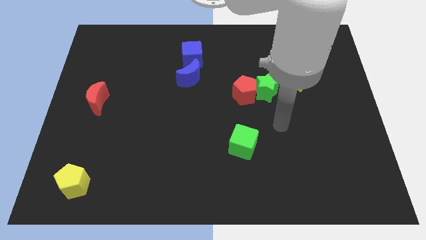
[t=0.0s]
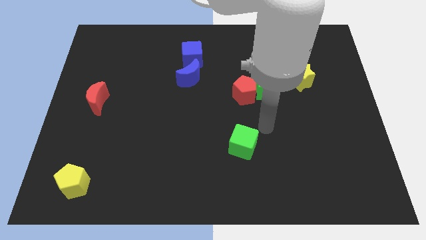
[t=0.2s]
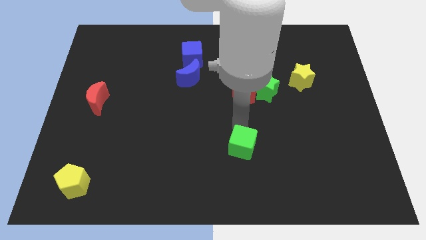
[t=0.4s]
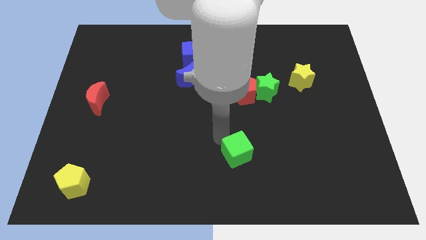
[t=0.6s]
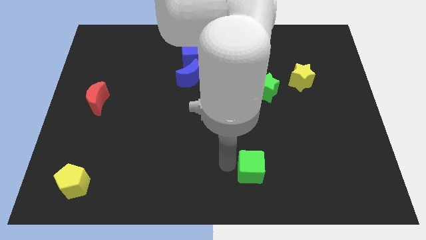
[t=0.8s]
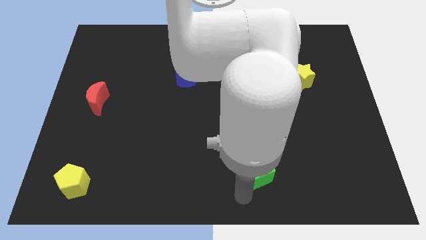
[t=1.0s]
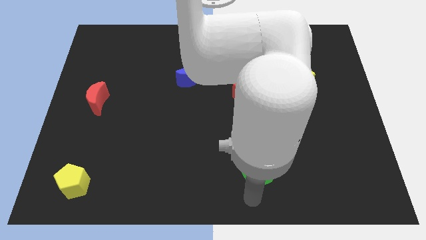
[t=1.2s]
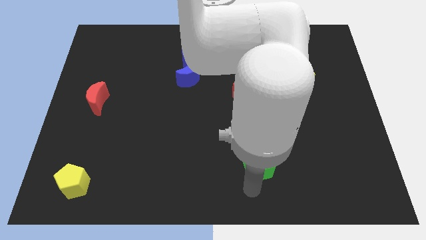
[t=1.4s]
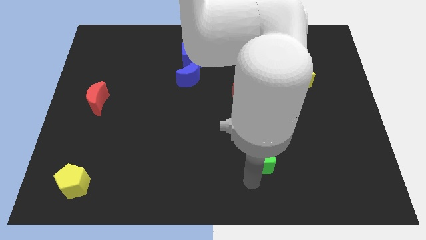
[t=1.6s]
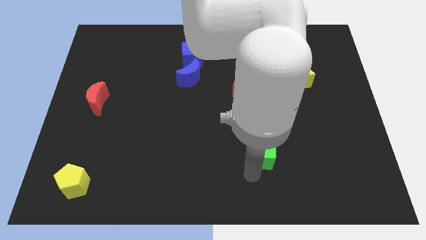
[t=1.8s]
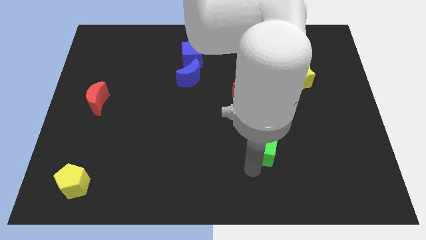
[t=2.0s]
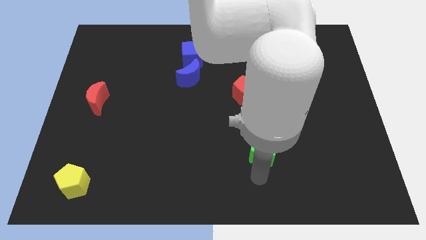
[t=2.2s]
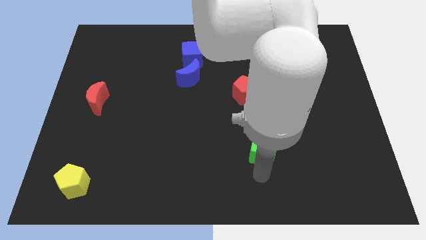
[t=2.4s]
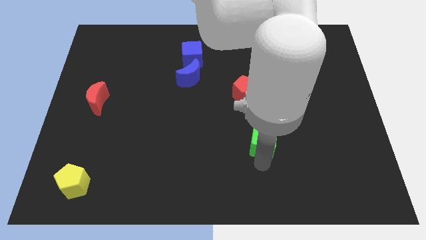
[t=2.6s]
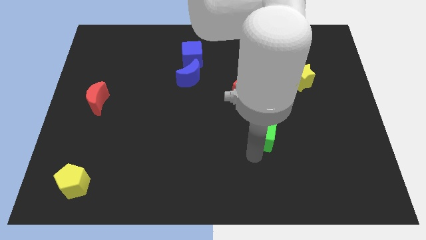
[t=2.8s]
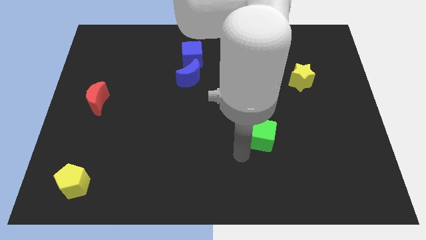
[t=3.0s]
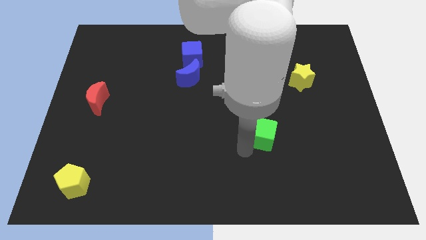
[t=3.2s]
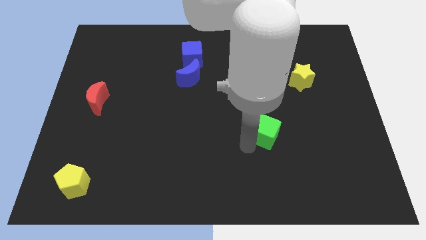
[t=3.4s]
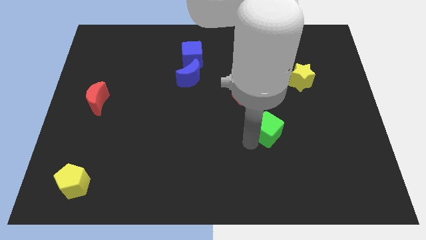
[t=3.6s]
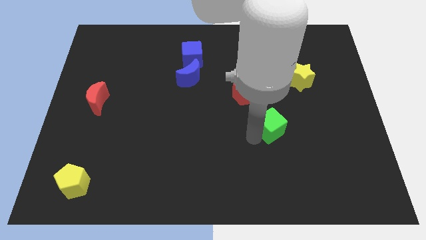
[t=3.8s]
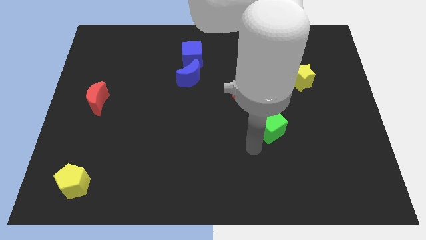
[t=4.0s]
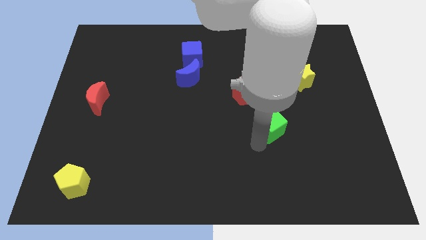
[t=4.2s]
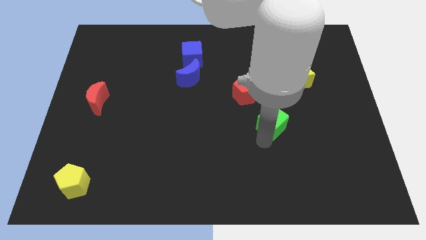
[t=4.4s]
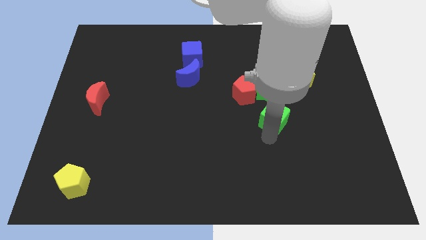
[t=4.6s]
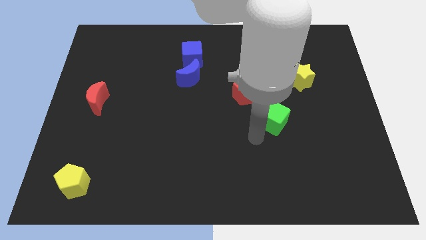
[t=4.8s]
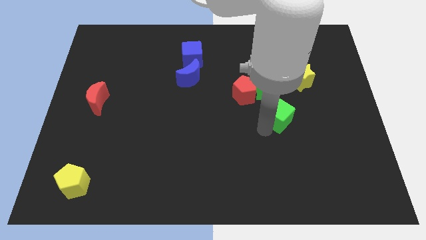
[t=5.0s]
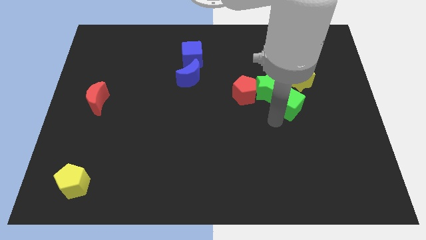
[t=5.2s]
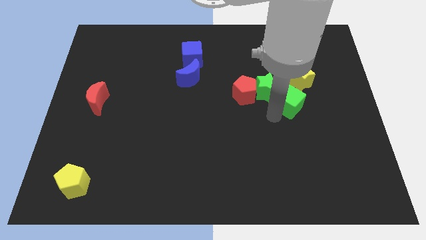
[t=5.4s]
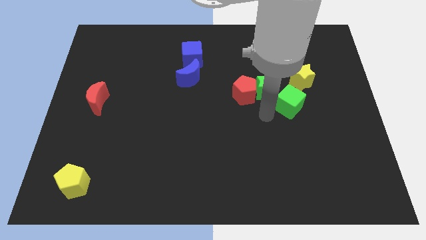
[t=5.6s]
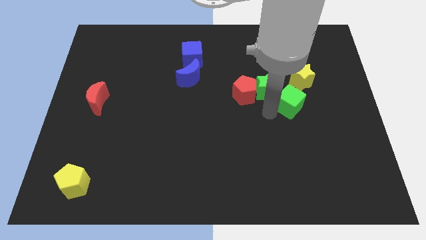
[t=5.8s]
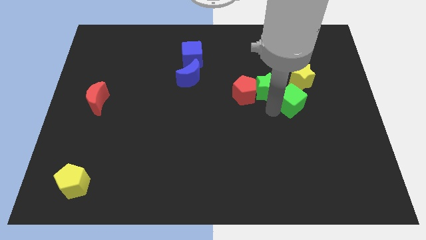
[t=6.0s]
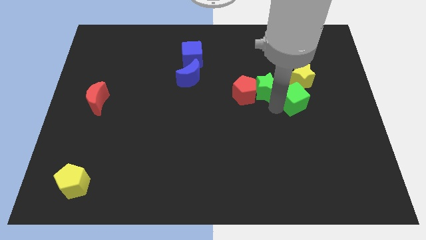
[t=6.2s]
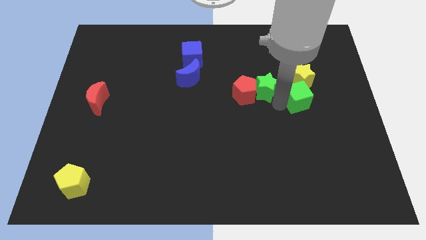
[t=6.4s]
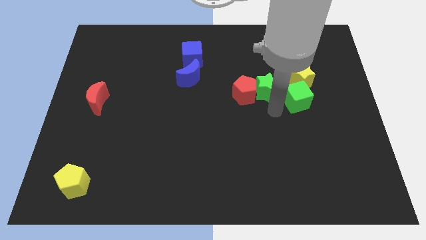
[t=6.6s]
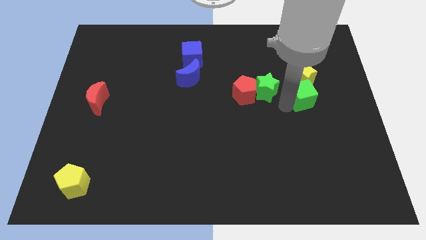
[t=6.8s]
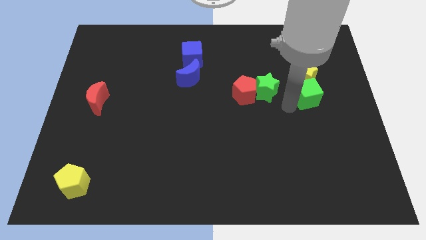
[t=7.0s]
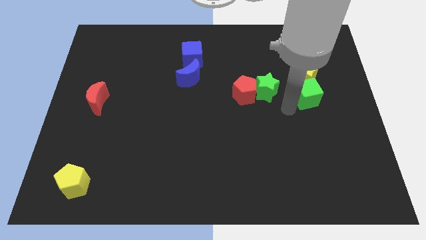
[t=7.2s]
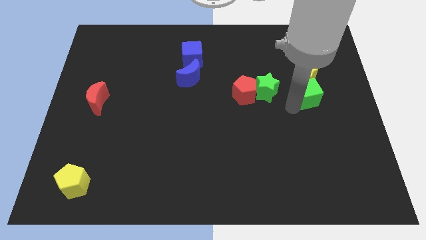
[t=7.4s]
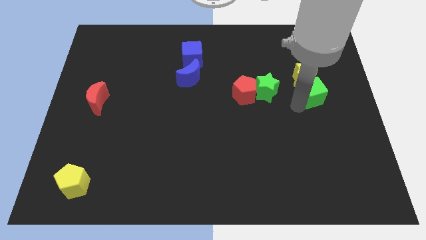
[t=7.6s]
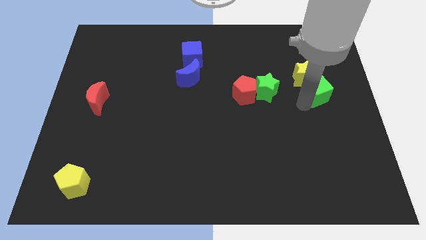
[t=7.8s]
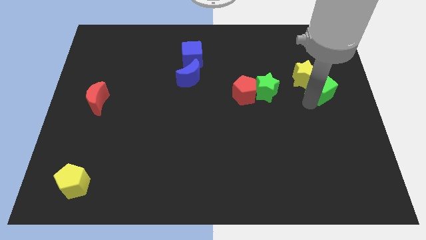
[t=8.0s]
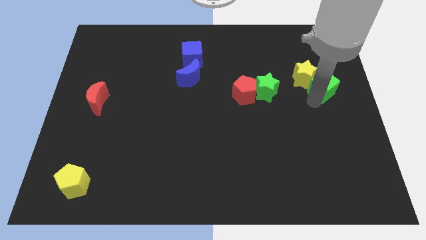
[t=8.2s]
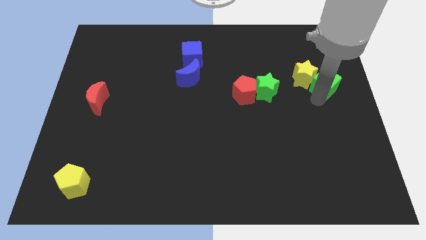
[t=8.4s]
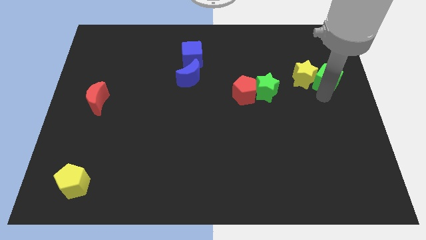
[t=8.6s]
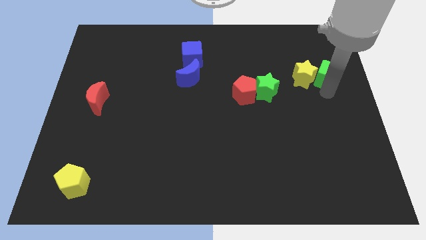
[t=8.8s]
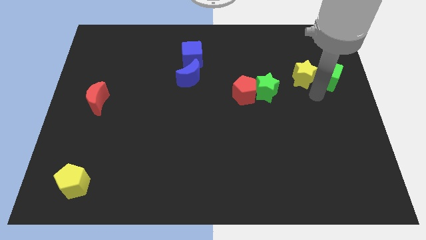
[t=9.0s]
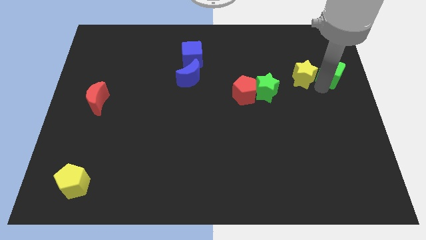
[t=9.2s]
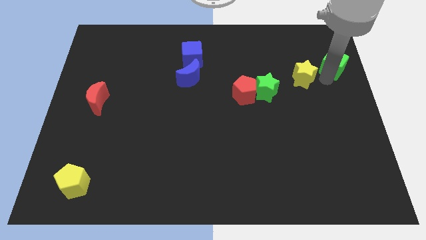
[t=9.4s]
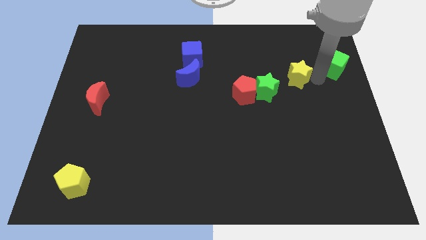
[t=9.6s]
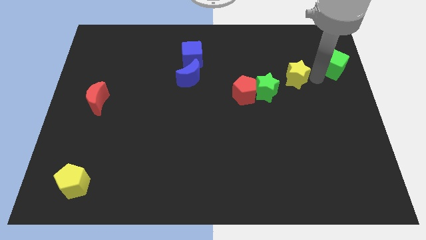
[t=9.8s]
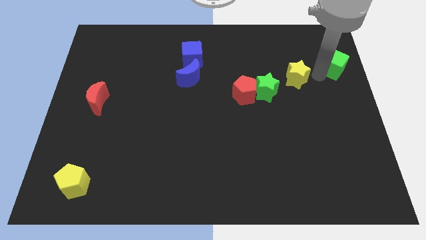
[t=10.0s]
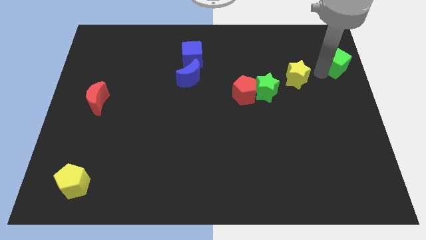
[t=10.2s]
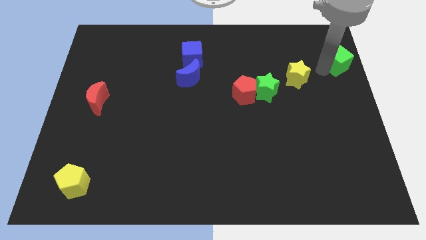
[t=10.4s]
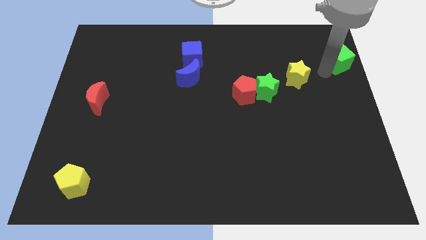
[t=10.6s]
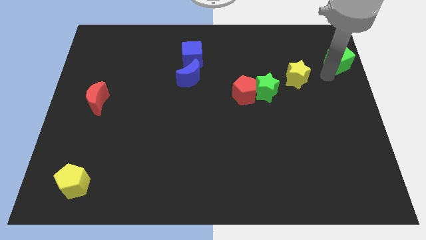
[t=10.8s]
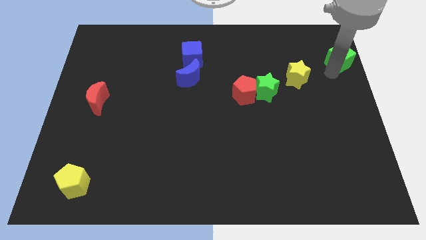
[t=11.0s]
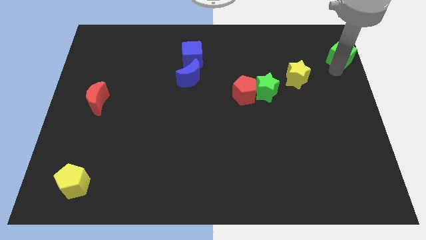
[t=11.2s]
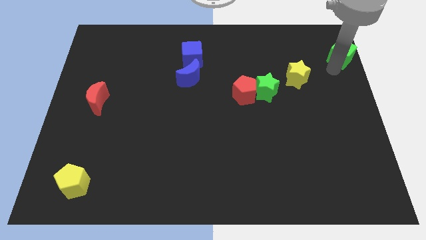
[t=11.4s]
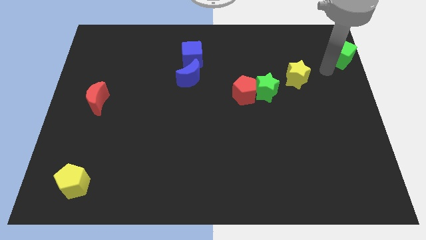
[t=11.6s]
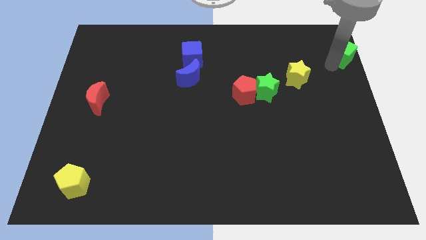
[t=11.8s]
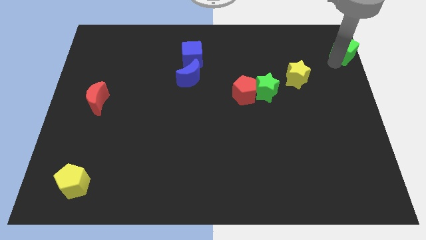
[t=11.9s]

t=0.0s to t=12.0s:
push the green cube to the top right

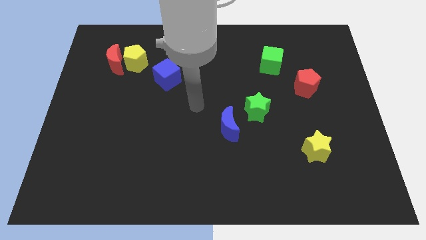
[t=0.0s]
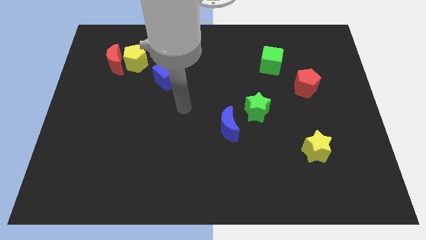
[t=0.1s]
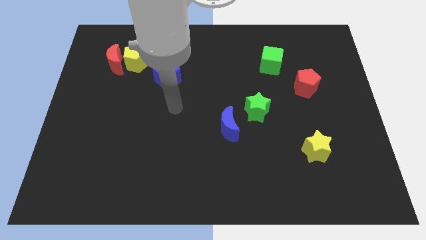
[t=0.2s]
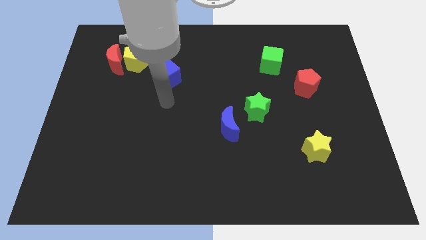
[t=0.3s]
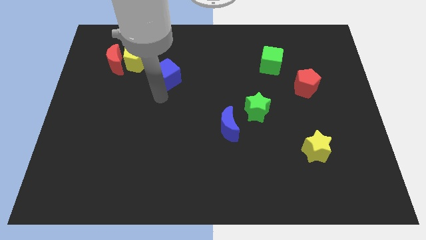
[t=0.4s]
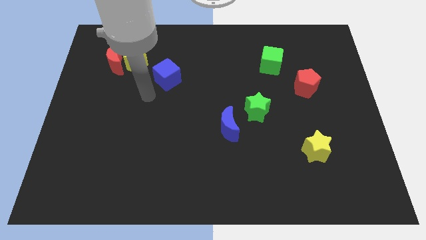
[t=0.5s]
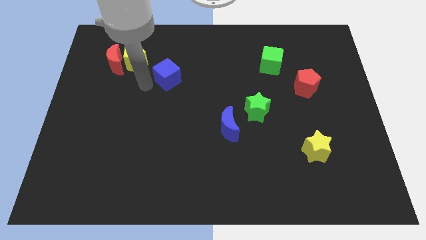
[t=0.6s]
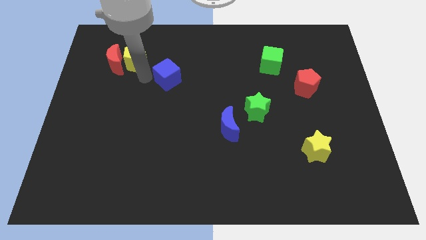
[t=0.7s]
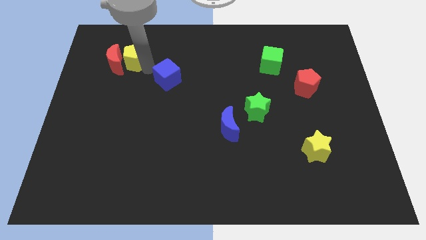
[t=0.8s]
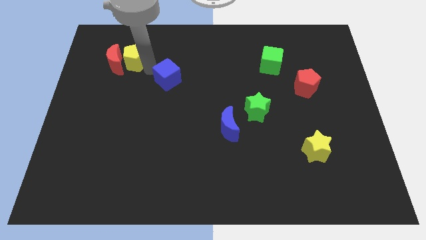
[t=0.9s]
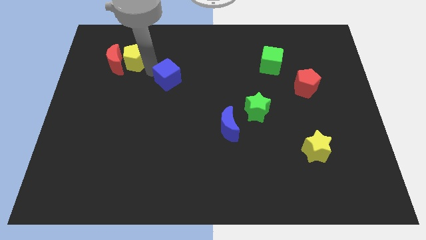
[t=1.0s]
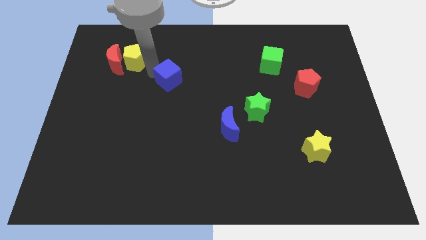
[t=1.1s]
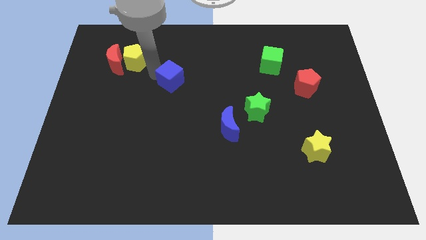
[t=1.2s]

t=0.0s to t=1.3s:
put the blue cube to the middle
